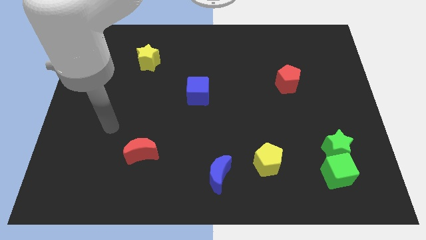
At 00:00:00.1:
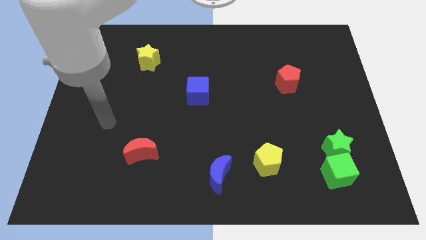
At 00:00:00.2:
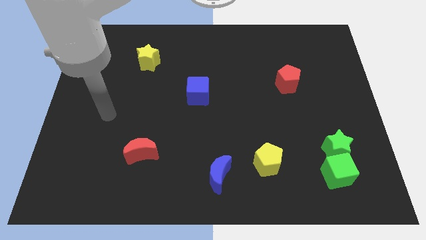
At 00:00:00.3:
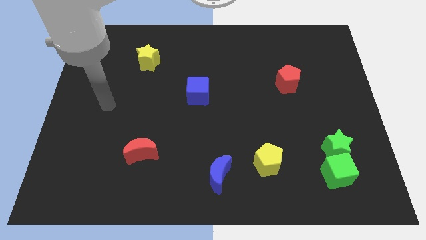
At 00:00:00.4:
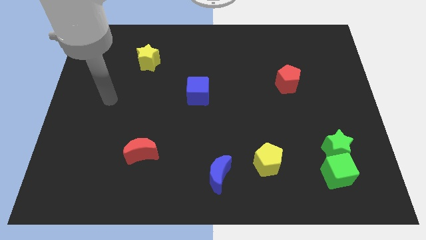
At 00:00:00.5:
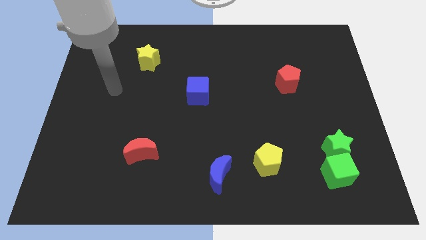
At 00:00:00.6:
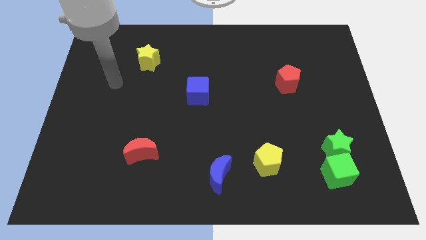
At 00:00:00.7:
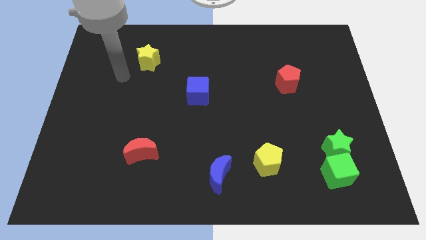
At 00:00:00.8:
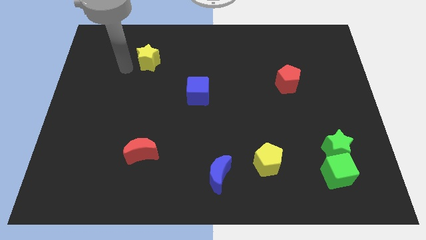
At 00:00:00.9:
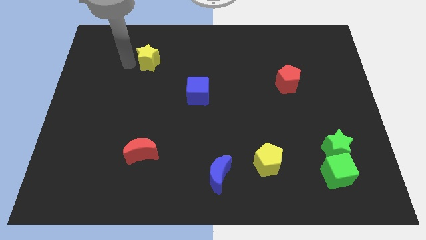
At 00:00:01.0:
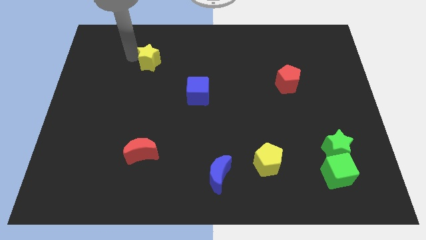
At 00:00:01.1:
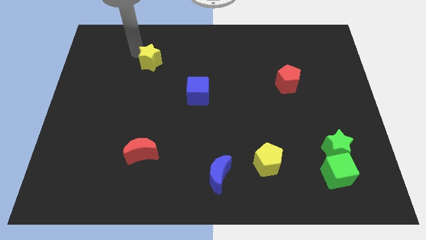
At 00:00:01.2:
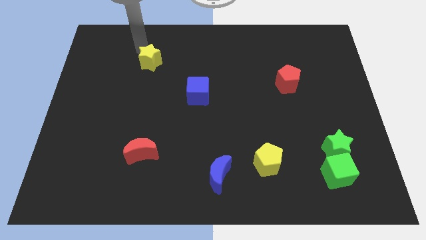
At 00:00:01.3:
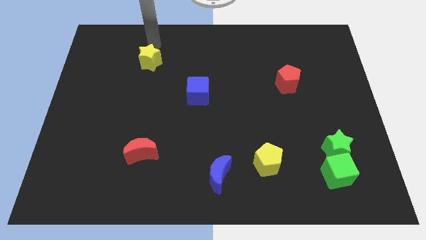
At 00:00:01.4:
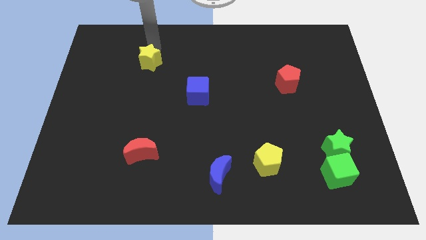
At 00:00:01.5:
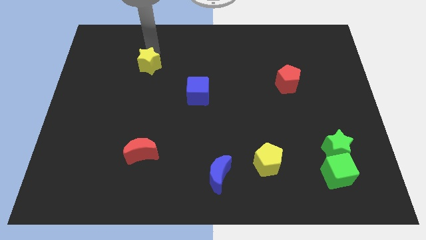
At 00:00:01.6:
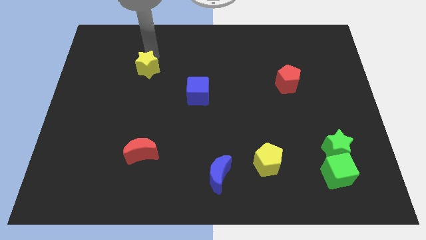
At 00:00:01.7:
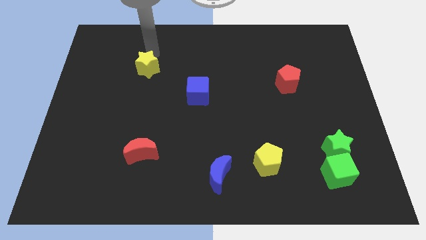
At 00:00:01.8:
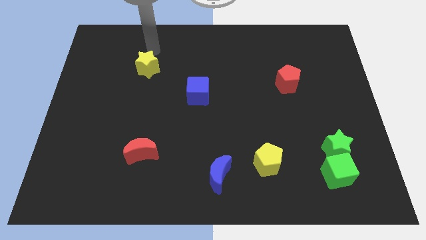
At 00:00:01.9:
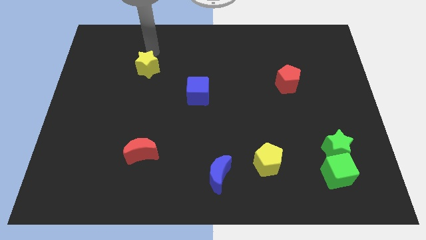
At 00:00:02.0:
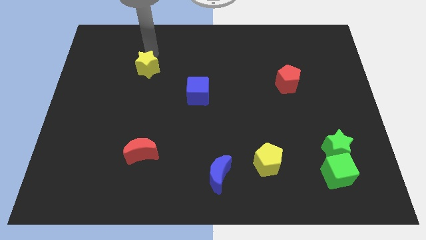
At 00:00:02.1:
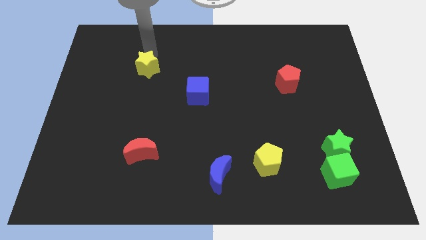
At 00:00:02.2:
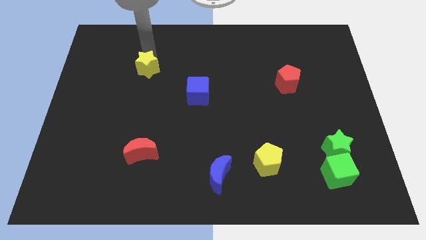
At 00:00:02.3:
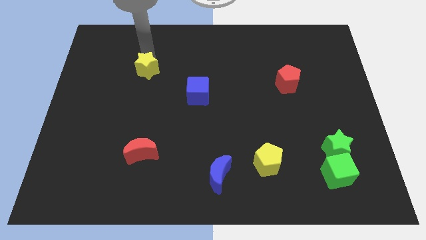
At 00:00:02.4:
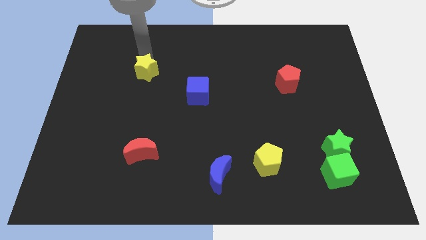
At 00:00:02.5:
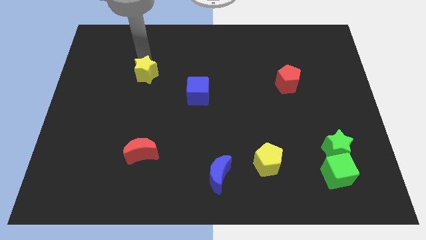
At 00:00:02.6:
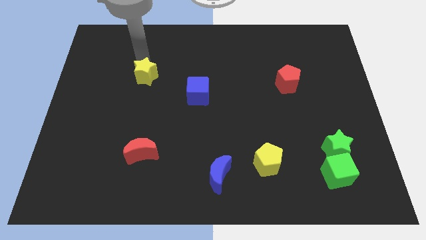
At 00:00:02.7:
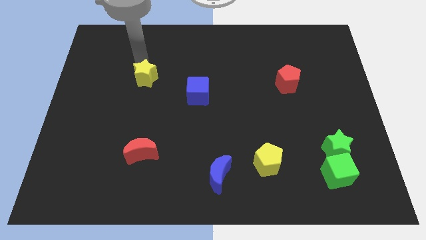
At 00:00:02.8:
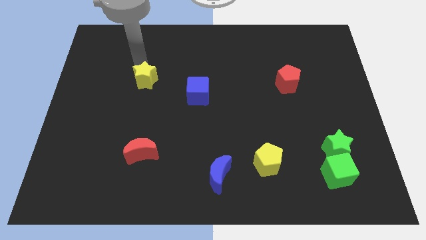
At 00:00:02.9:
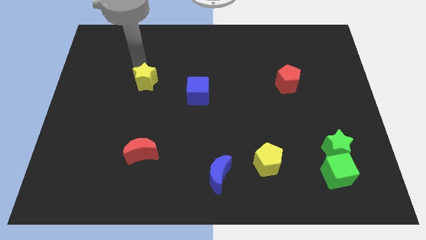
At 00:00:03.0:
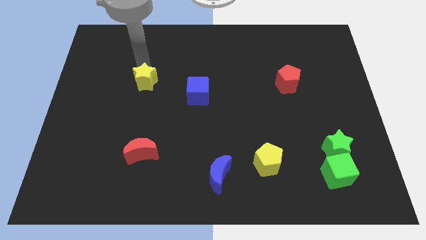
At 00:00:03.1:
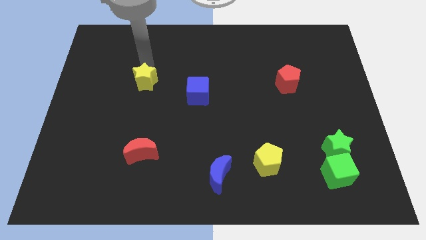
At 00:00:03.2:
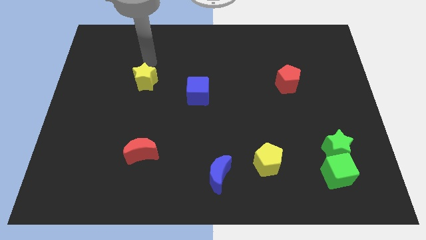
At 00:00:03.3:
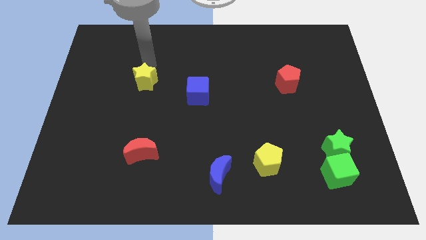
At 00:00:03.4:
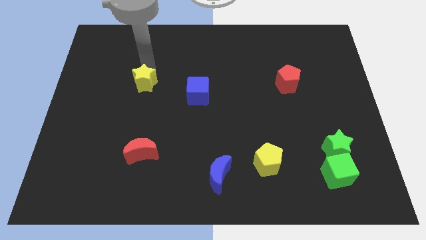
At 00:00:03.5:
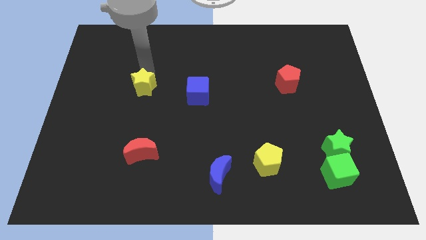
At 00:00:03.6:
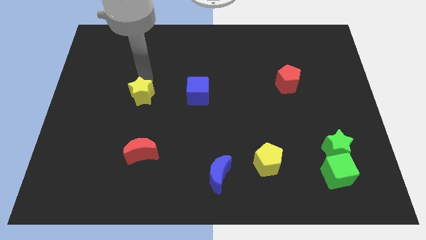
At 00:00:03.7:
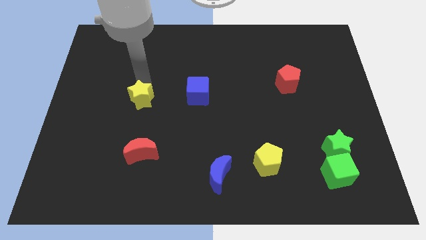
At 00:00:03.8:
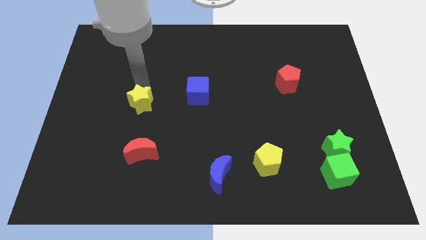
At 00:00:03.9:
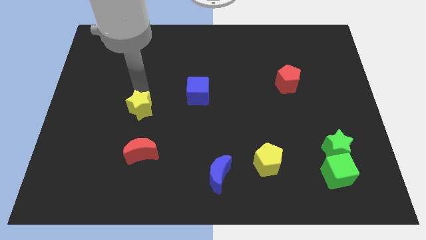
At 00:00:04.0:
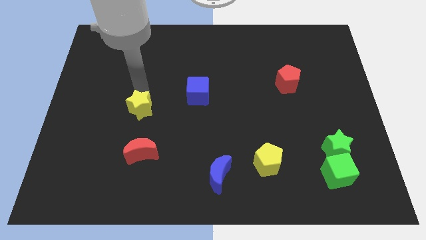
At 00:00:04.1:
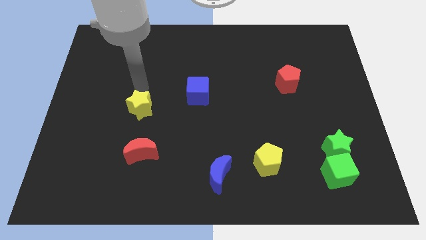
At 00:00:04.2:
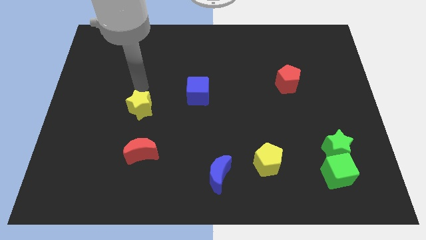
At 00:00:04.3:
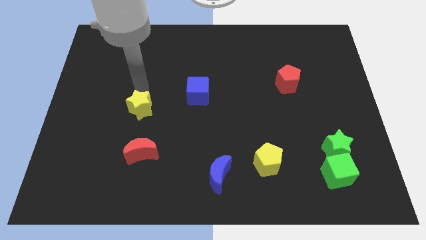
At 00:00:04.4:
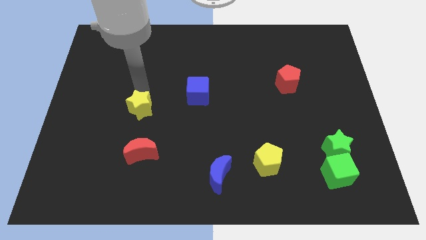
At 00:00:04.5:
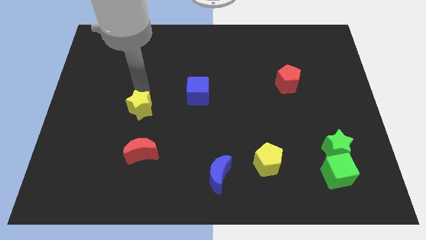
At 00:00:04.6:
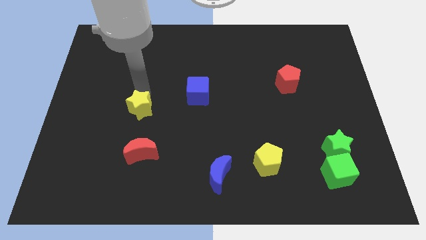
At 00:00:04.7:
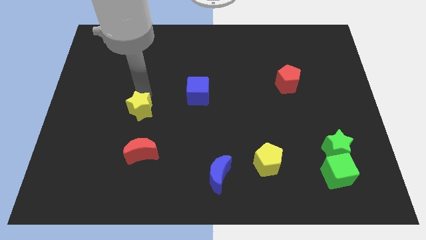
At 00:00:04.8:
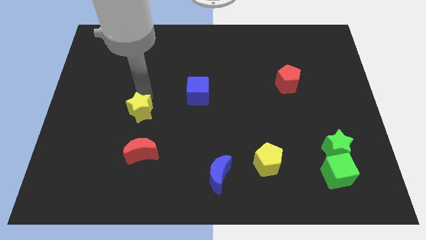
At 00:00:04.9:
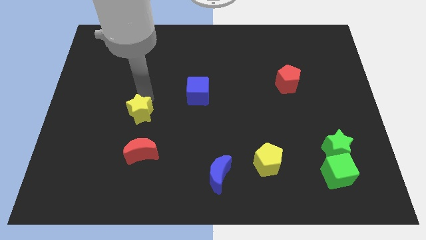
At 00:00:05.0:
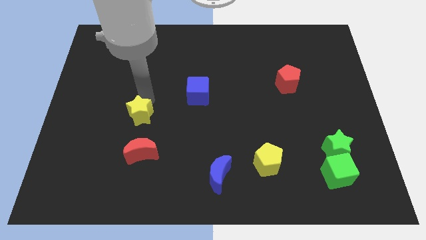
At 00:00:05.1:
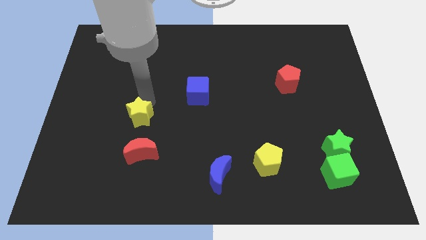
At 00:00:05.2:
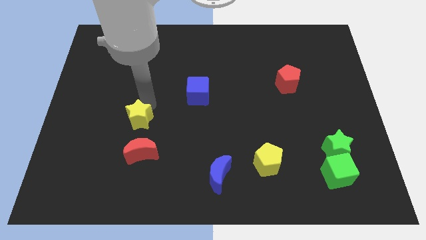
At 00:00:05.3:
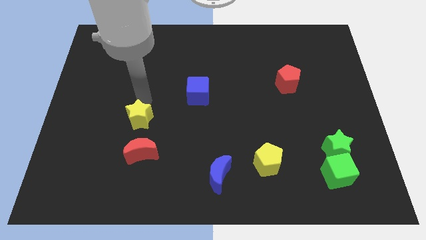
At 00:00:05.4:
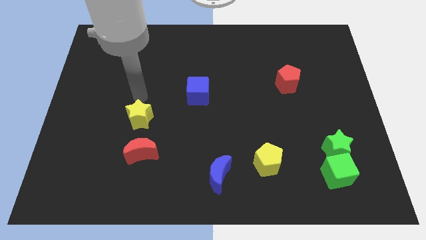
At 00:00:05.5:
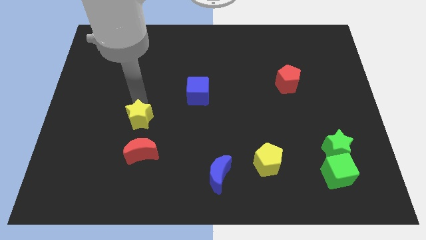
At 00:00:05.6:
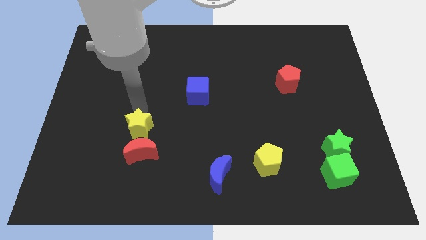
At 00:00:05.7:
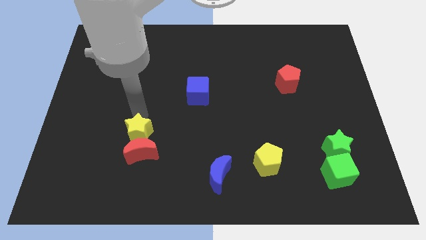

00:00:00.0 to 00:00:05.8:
put the yellow star close to the red moon

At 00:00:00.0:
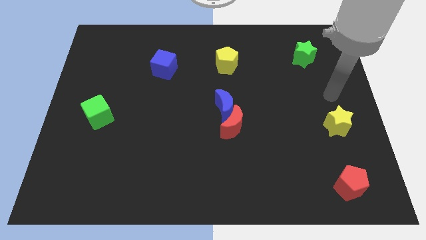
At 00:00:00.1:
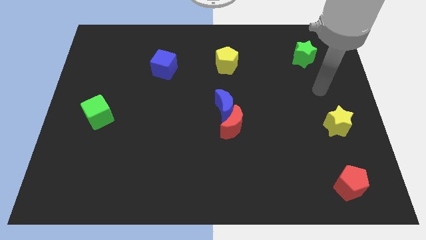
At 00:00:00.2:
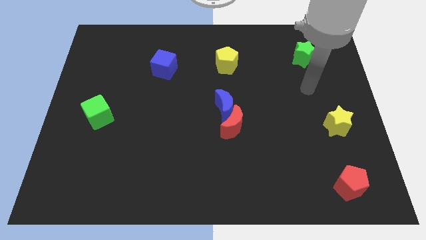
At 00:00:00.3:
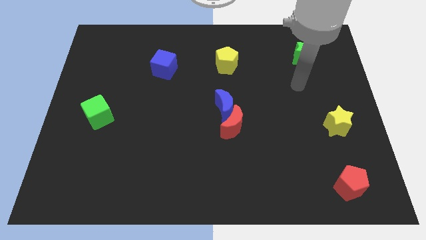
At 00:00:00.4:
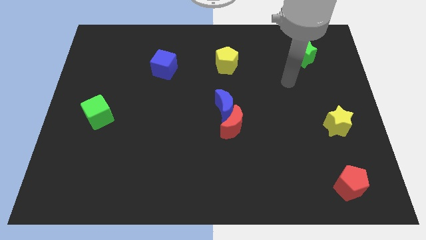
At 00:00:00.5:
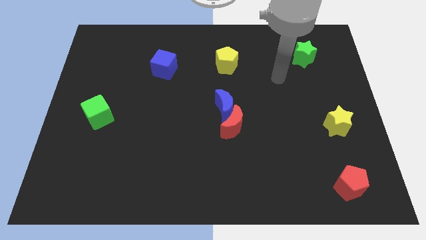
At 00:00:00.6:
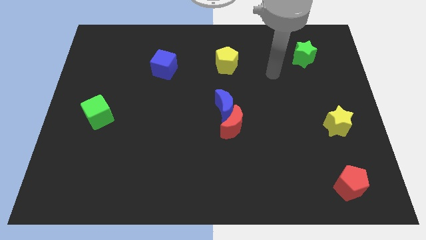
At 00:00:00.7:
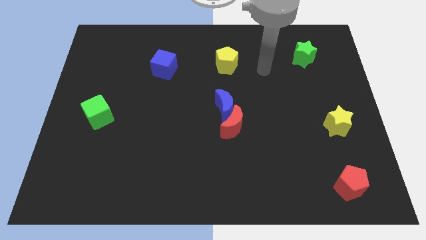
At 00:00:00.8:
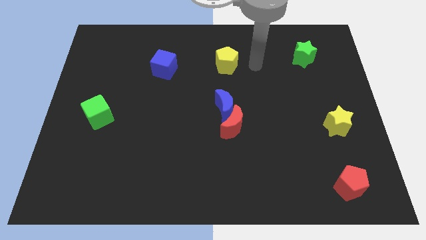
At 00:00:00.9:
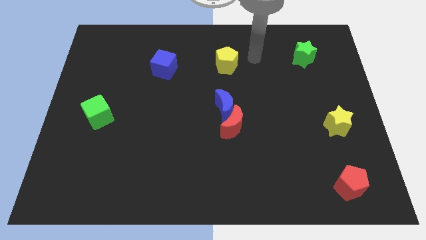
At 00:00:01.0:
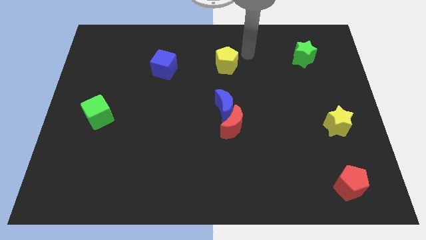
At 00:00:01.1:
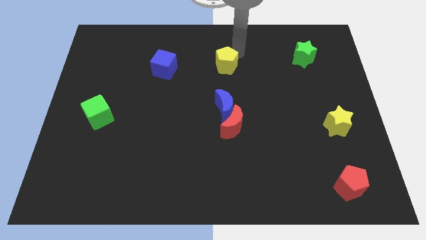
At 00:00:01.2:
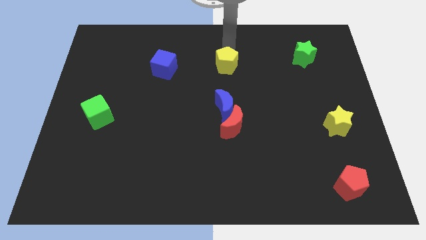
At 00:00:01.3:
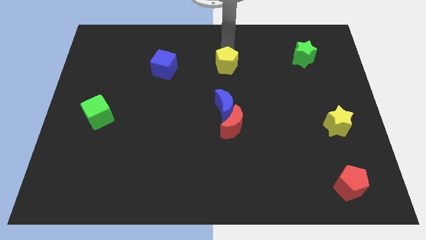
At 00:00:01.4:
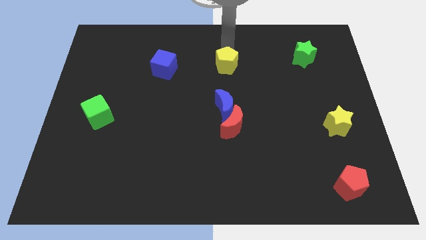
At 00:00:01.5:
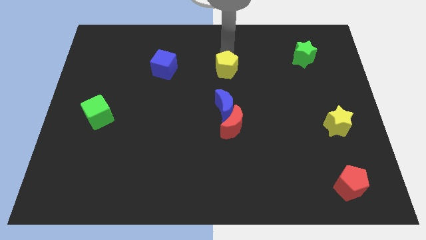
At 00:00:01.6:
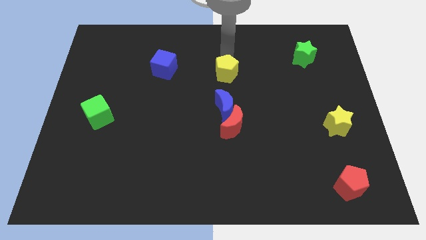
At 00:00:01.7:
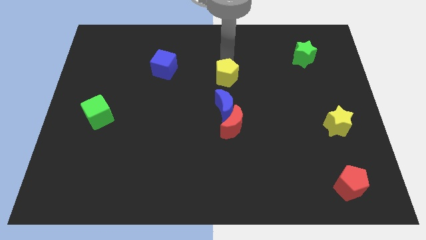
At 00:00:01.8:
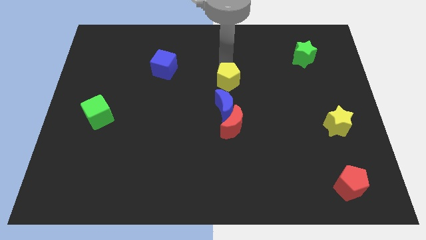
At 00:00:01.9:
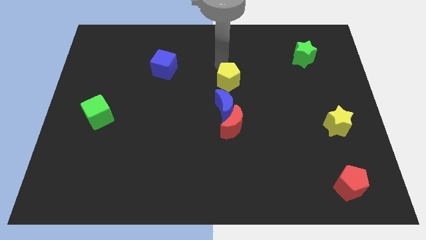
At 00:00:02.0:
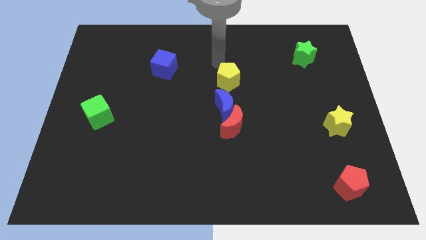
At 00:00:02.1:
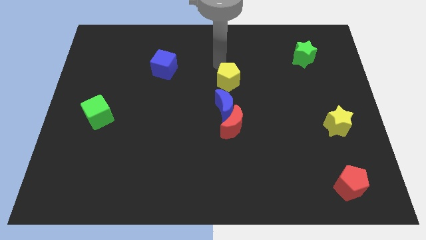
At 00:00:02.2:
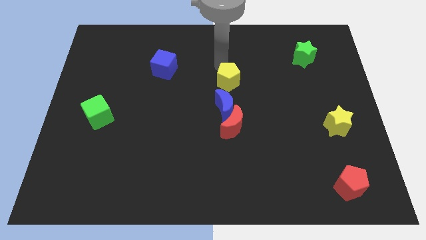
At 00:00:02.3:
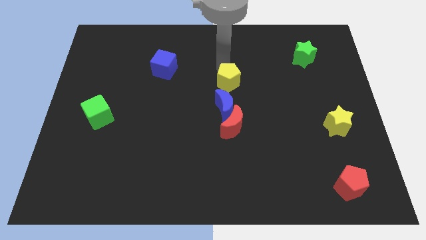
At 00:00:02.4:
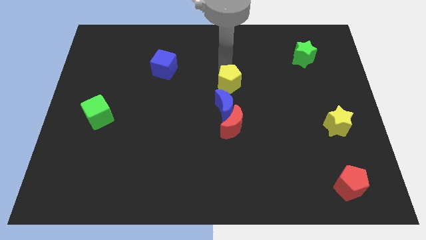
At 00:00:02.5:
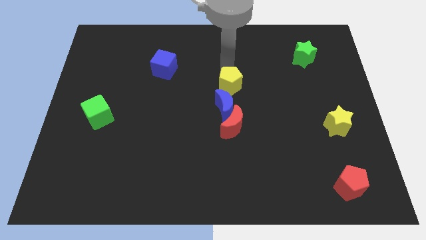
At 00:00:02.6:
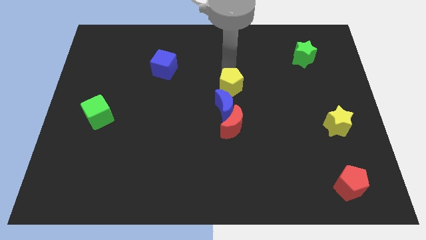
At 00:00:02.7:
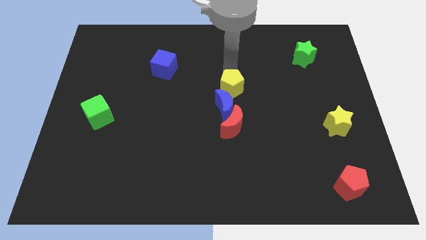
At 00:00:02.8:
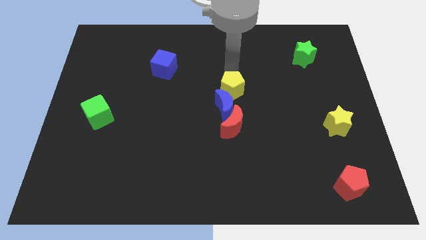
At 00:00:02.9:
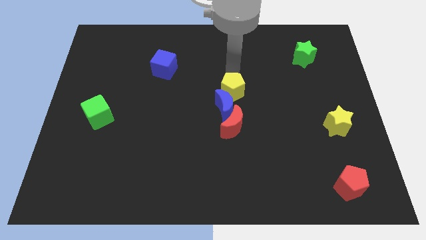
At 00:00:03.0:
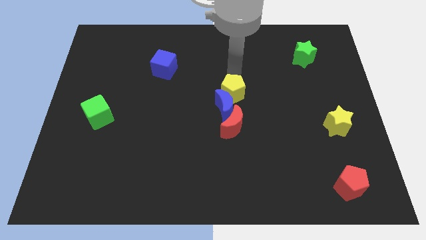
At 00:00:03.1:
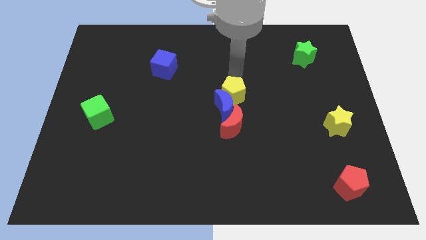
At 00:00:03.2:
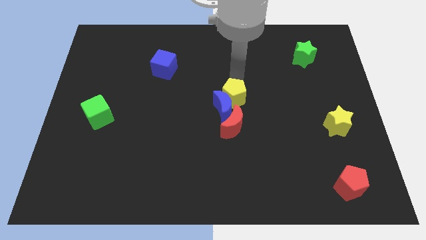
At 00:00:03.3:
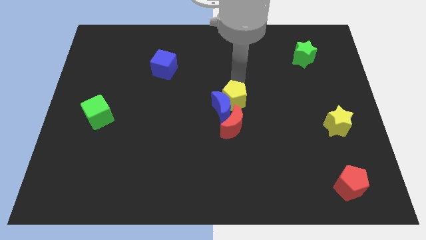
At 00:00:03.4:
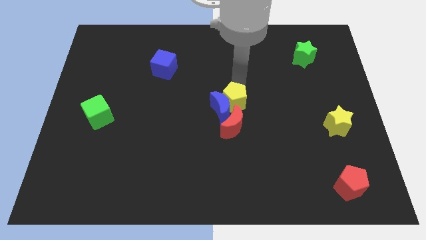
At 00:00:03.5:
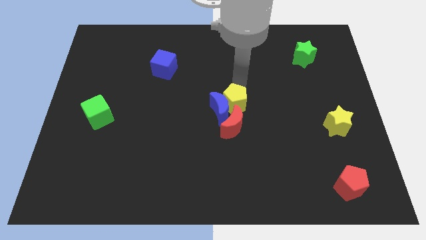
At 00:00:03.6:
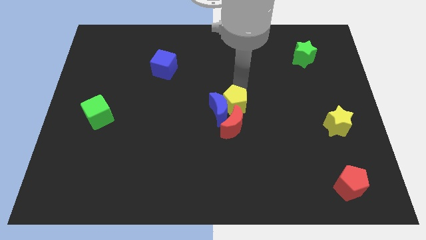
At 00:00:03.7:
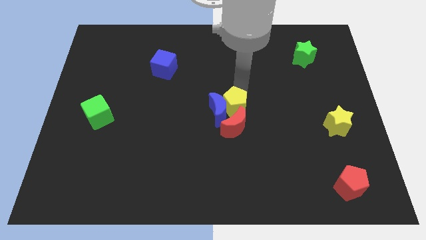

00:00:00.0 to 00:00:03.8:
slide the yellow pentagon to the red moon
